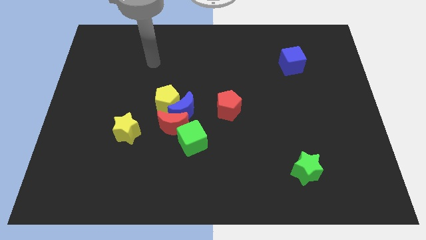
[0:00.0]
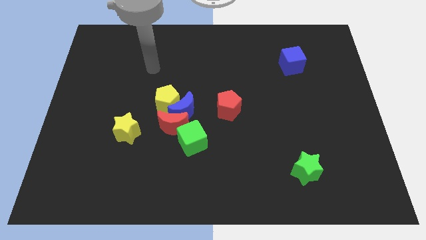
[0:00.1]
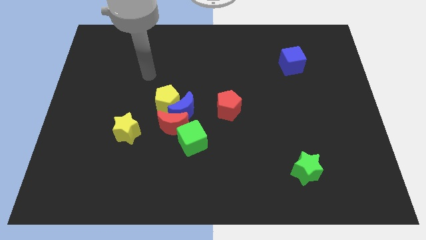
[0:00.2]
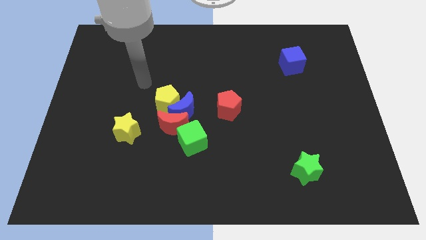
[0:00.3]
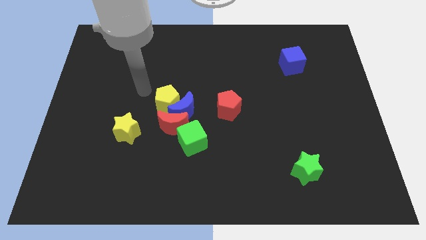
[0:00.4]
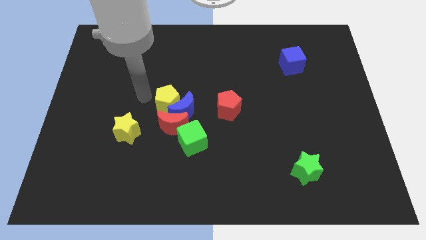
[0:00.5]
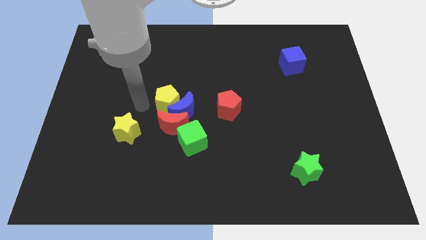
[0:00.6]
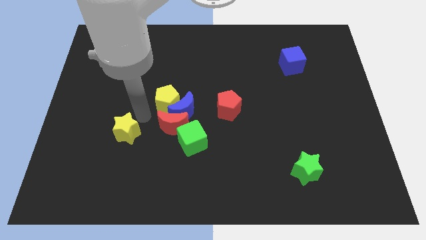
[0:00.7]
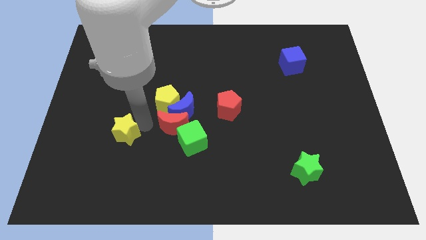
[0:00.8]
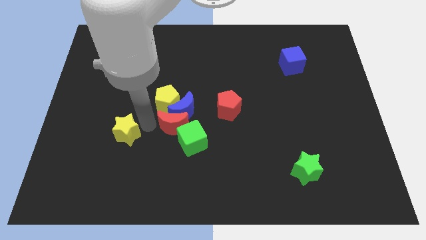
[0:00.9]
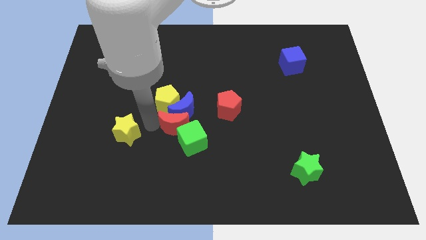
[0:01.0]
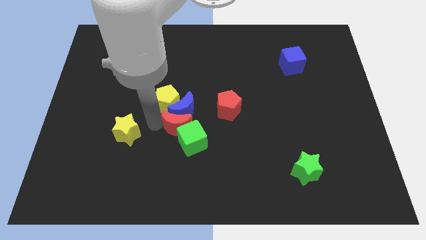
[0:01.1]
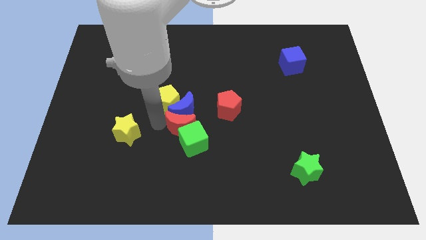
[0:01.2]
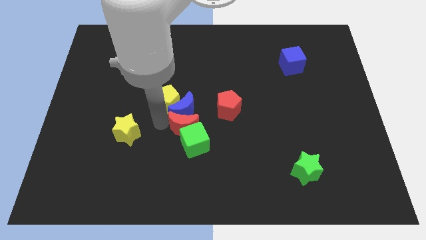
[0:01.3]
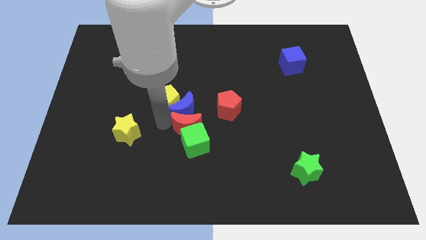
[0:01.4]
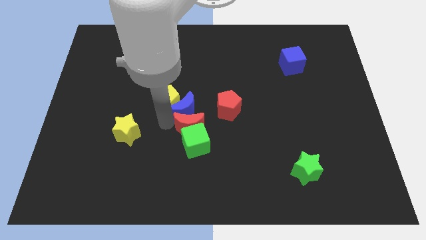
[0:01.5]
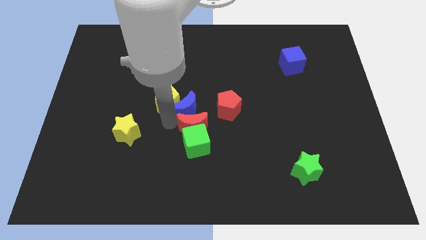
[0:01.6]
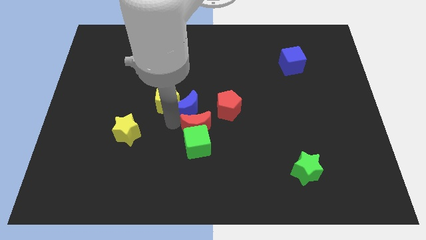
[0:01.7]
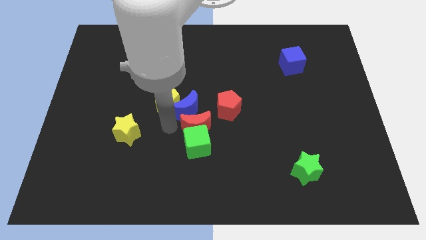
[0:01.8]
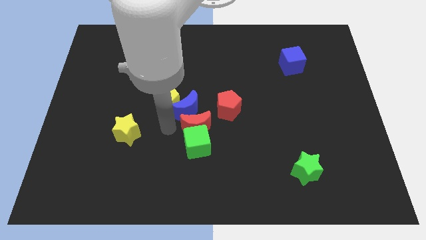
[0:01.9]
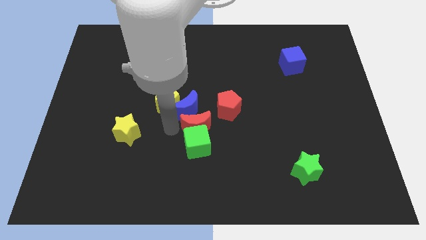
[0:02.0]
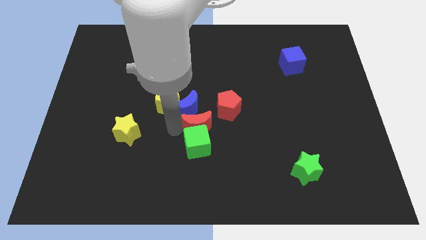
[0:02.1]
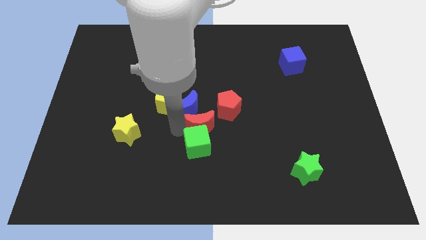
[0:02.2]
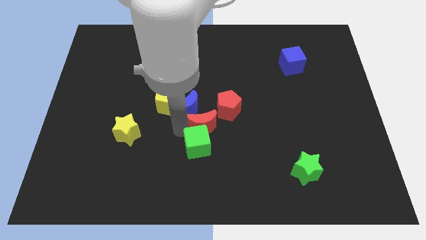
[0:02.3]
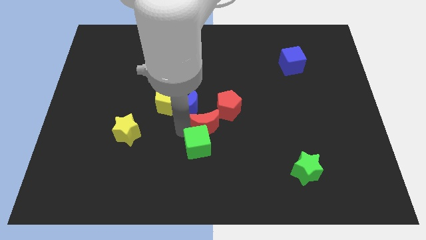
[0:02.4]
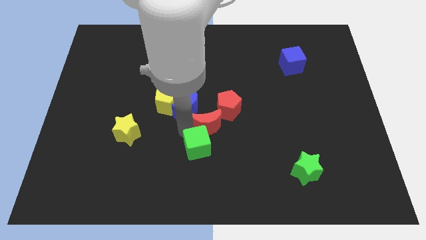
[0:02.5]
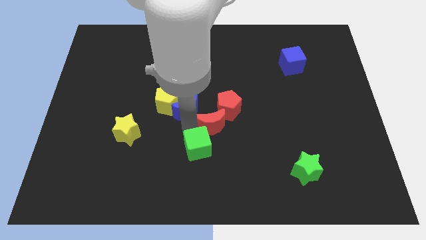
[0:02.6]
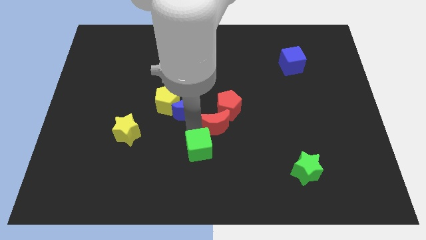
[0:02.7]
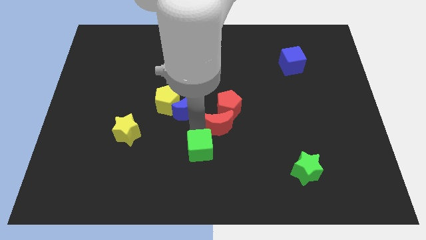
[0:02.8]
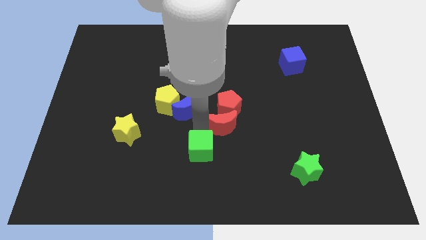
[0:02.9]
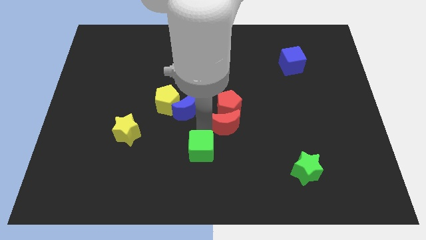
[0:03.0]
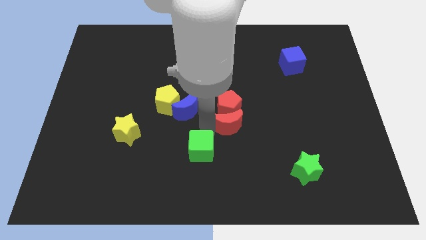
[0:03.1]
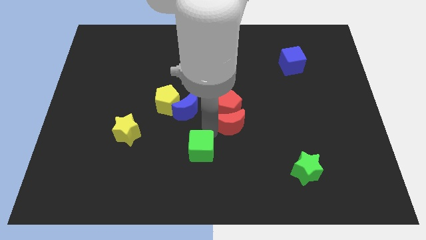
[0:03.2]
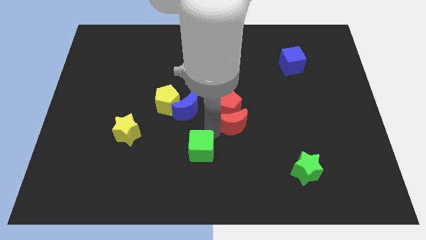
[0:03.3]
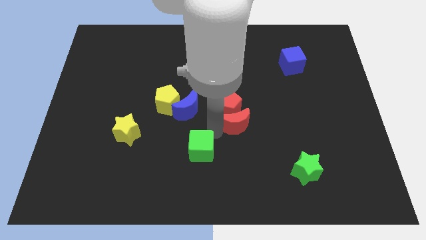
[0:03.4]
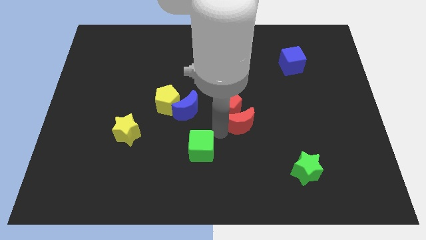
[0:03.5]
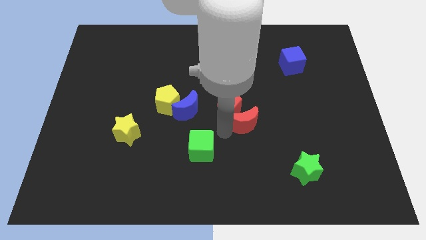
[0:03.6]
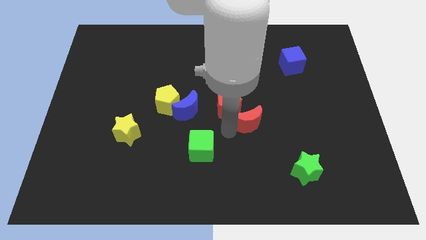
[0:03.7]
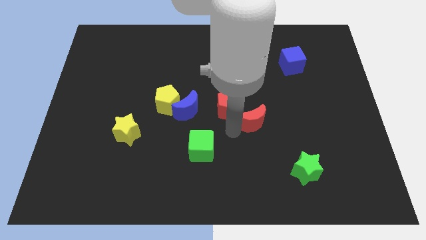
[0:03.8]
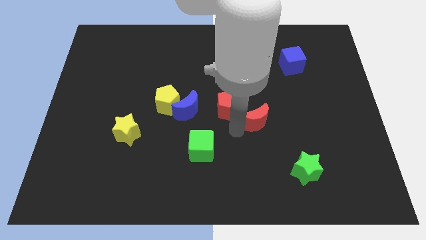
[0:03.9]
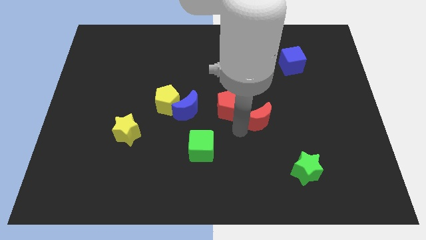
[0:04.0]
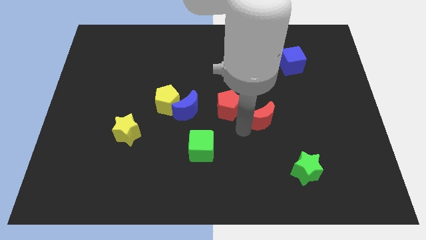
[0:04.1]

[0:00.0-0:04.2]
move the red moon to the right

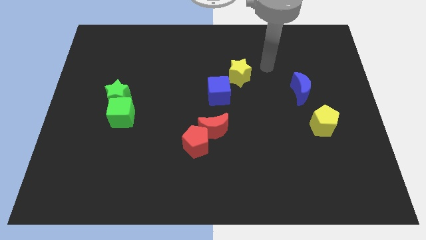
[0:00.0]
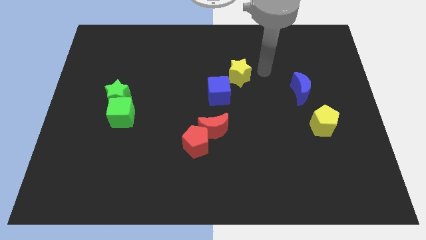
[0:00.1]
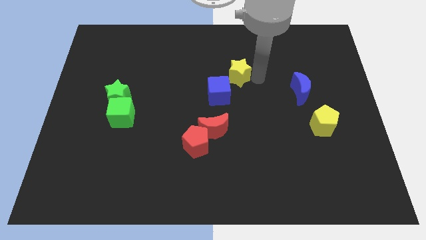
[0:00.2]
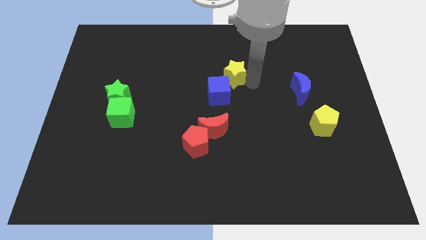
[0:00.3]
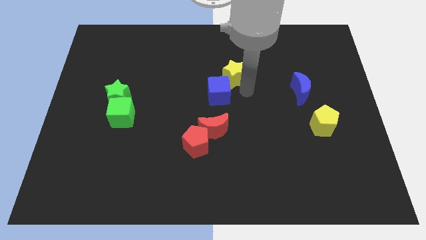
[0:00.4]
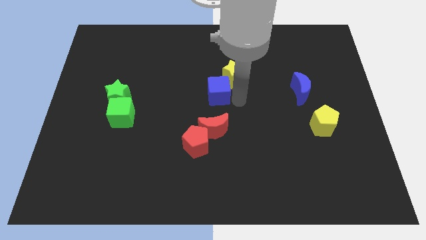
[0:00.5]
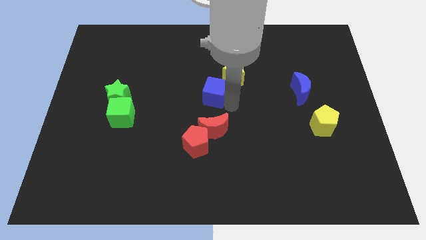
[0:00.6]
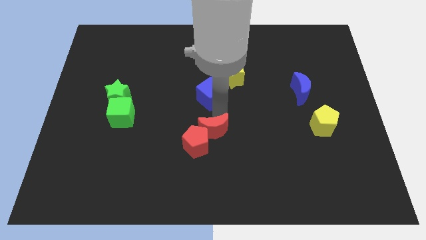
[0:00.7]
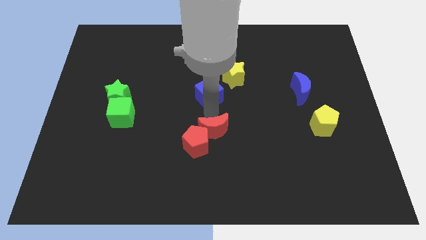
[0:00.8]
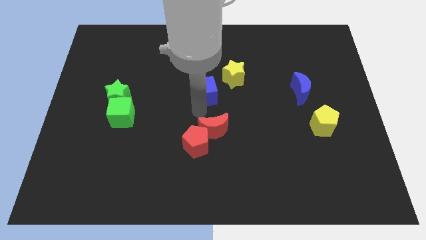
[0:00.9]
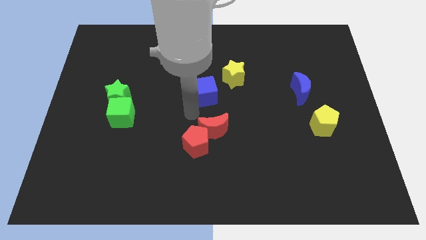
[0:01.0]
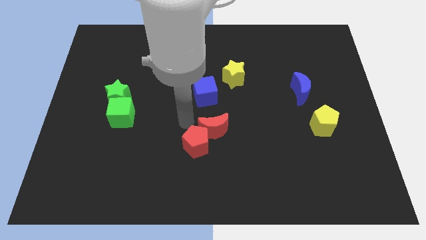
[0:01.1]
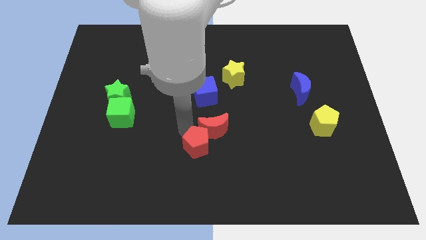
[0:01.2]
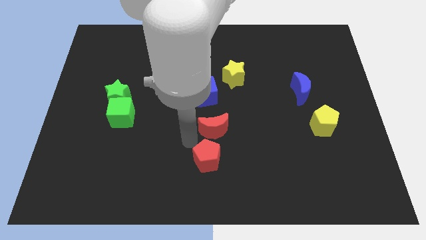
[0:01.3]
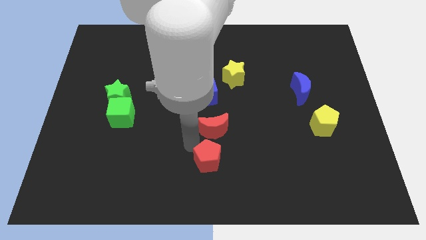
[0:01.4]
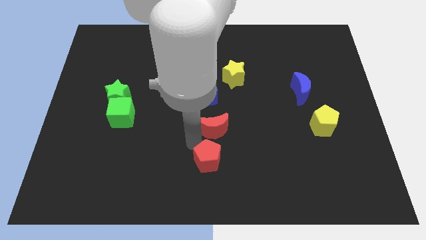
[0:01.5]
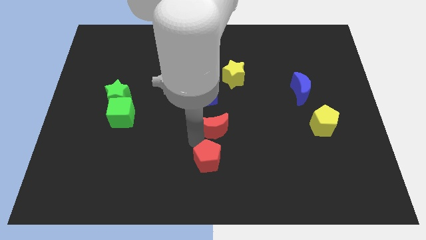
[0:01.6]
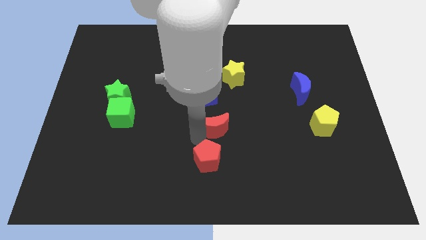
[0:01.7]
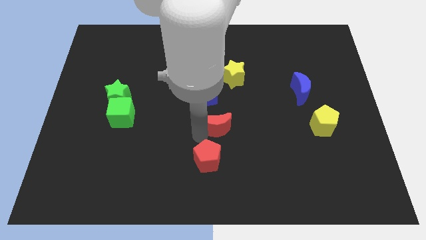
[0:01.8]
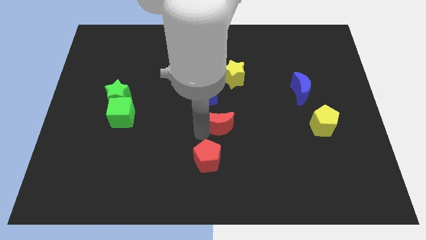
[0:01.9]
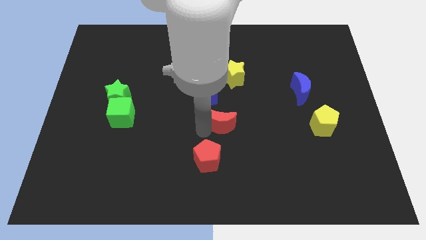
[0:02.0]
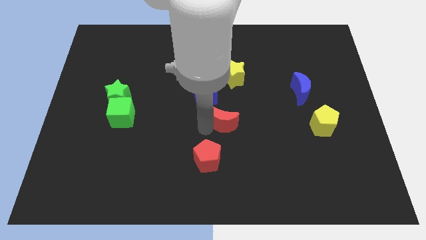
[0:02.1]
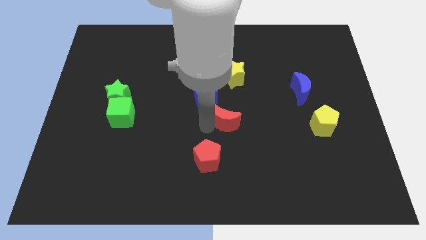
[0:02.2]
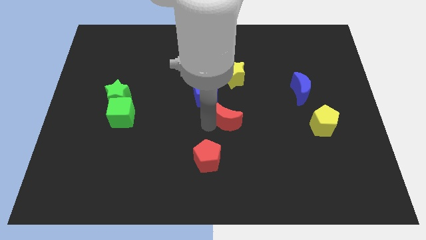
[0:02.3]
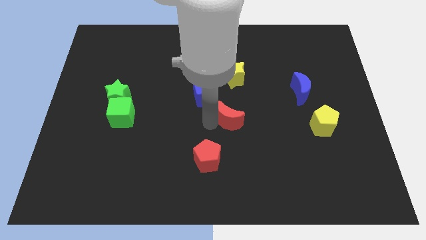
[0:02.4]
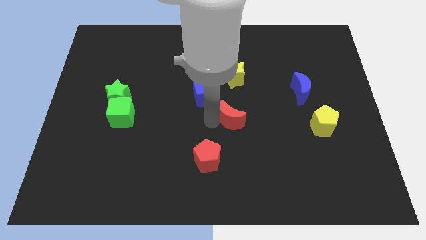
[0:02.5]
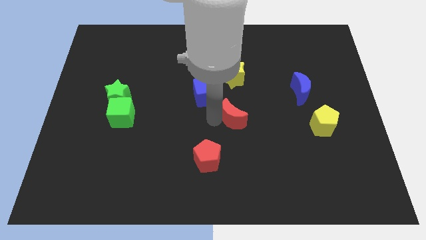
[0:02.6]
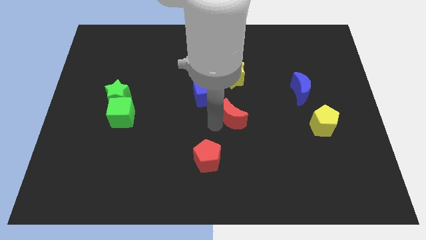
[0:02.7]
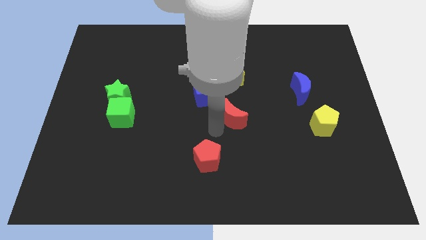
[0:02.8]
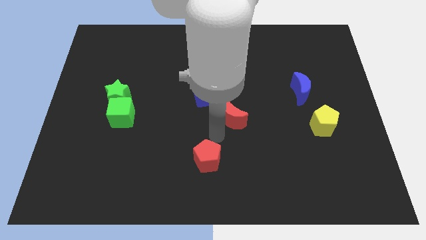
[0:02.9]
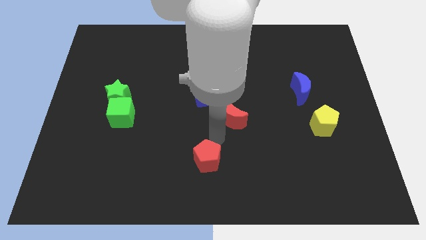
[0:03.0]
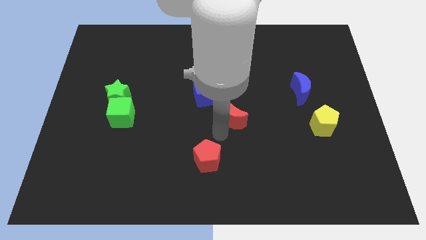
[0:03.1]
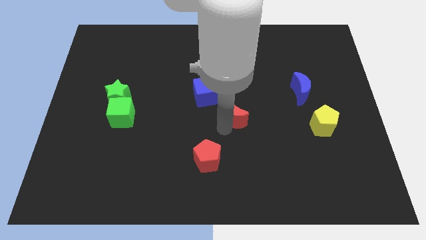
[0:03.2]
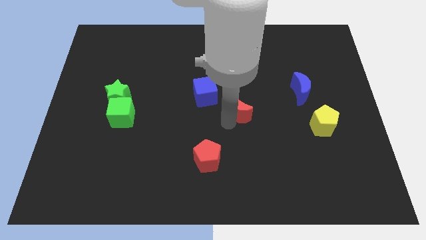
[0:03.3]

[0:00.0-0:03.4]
slide the red moon up and then right a little
